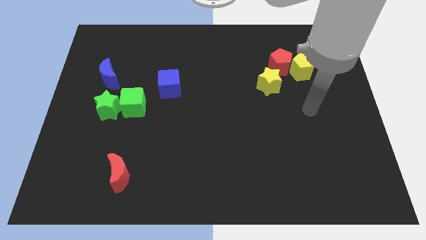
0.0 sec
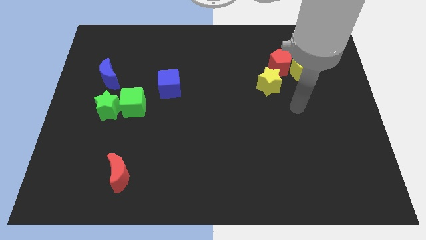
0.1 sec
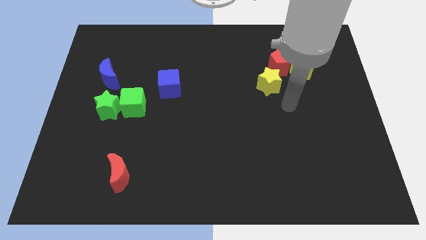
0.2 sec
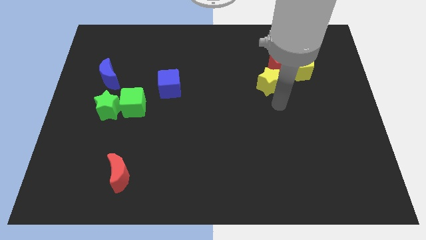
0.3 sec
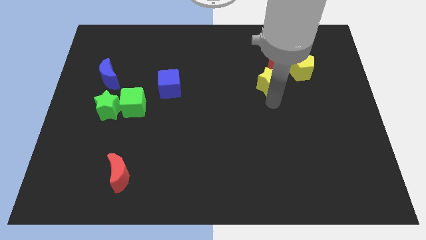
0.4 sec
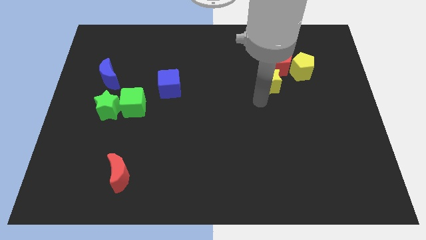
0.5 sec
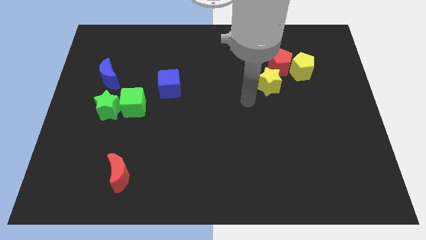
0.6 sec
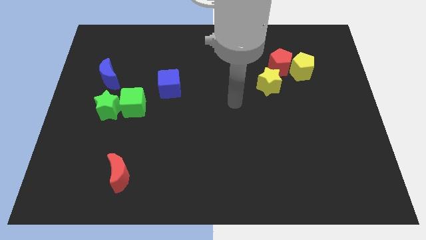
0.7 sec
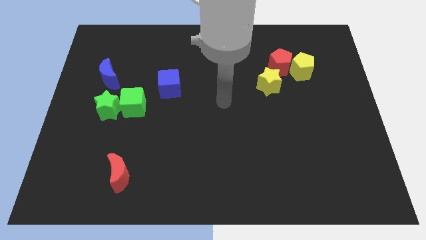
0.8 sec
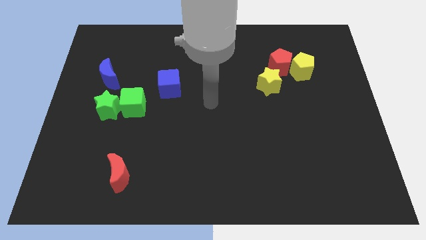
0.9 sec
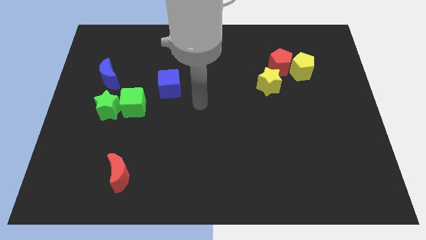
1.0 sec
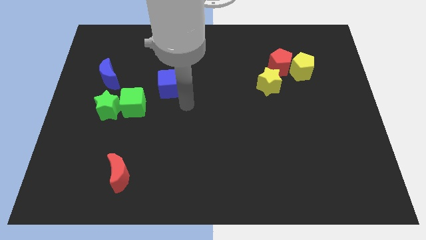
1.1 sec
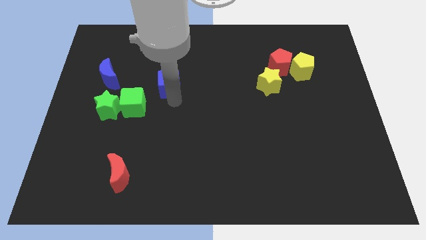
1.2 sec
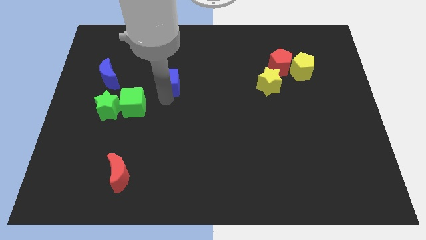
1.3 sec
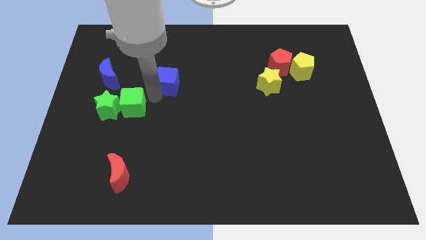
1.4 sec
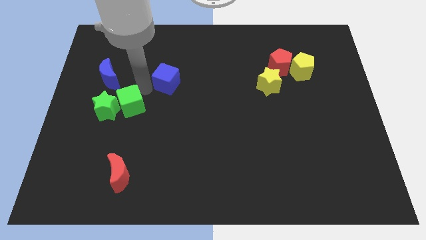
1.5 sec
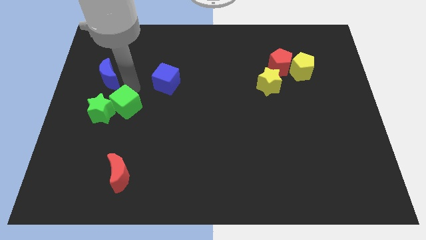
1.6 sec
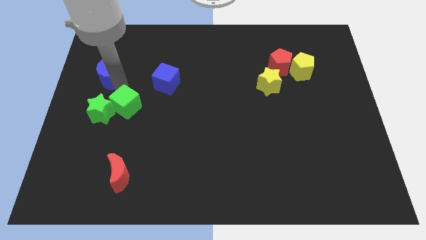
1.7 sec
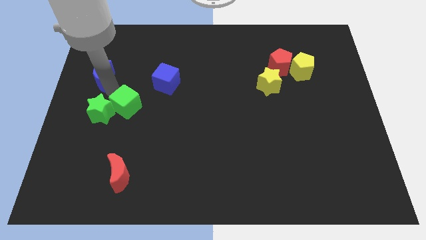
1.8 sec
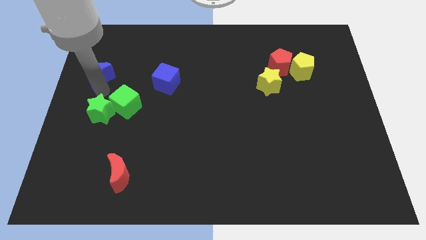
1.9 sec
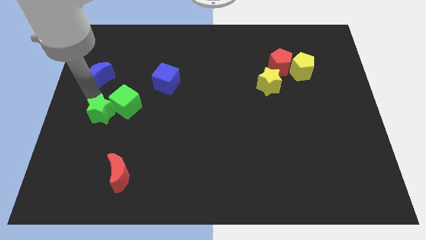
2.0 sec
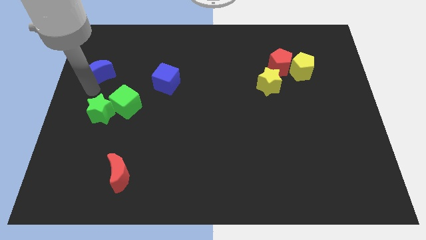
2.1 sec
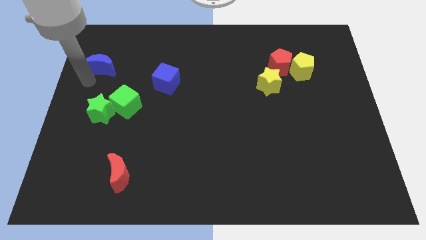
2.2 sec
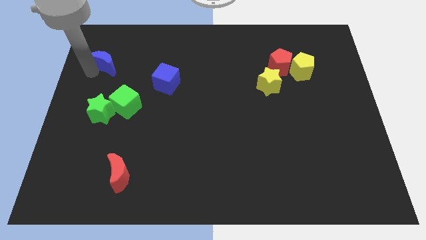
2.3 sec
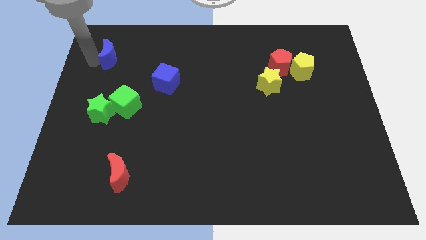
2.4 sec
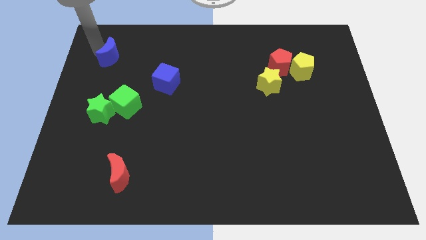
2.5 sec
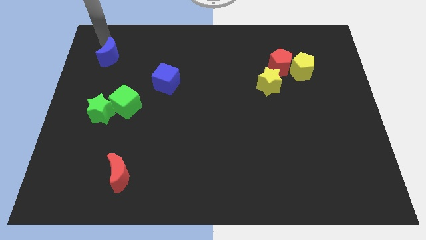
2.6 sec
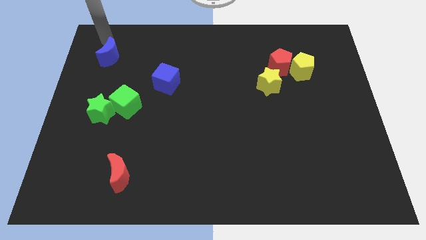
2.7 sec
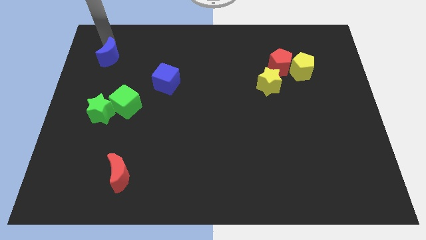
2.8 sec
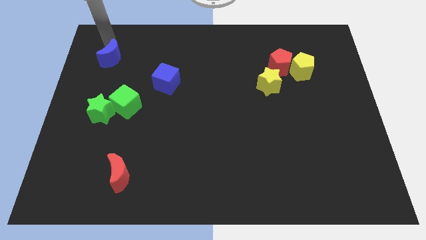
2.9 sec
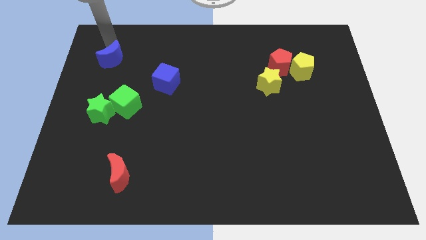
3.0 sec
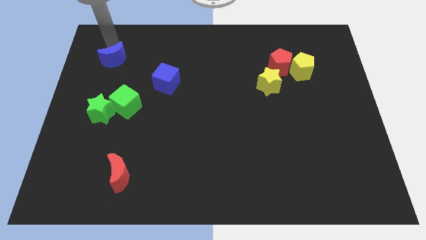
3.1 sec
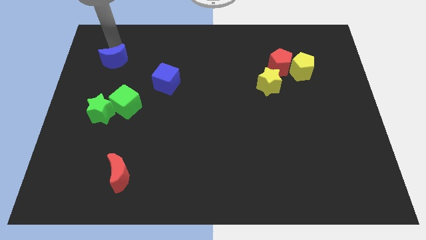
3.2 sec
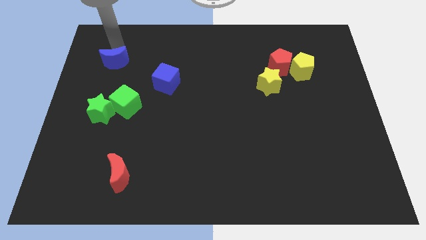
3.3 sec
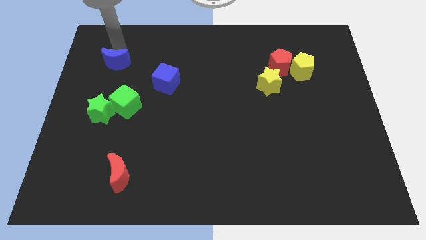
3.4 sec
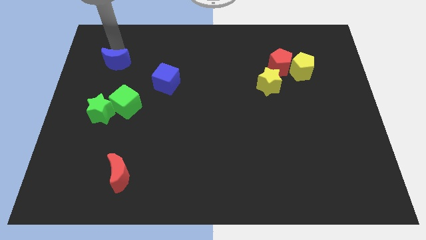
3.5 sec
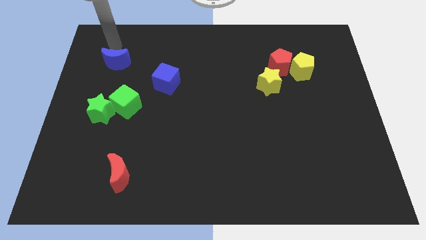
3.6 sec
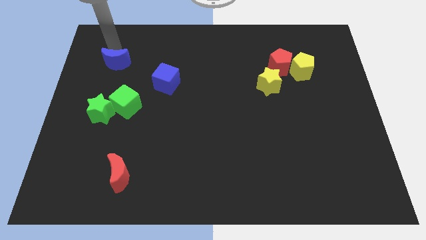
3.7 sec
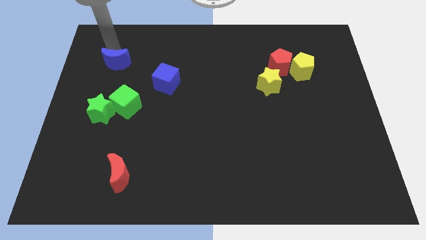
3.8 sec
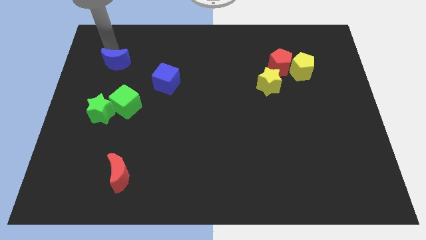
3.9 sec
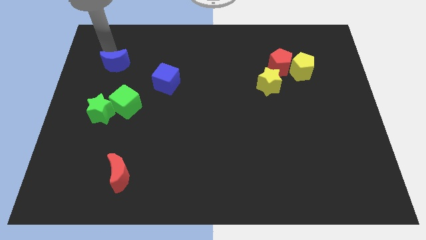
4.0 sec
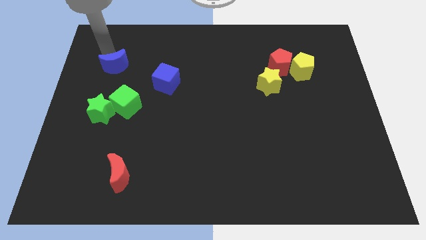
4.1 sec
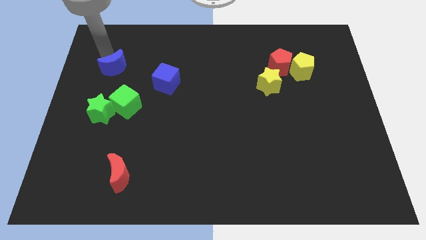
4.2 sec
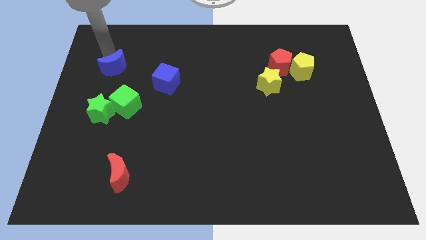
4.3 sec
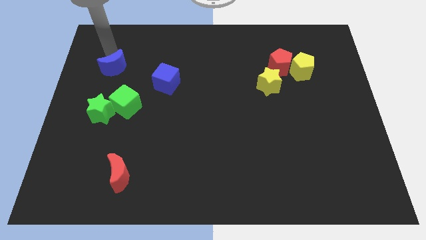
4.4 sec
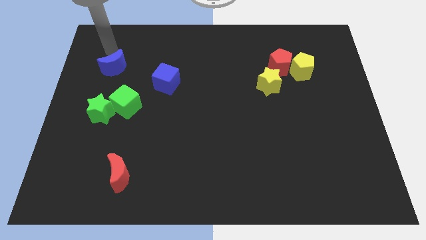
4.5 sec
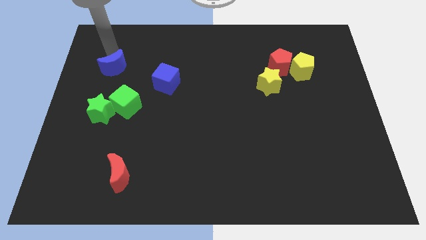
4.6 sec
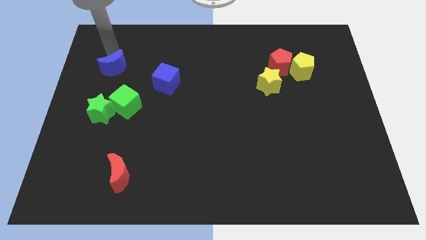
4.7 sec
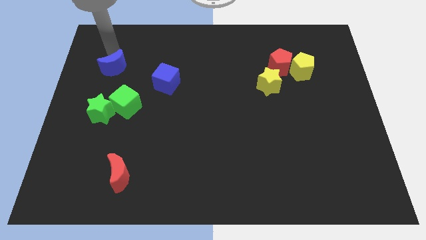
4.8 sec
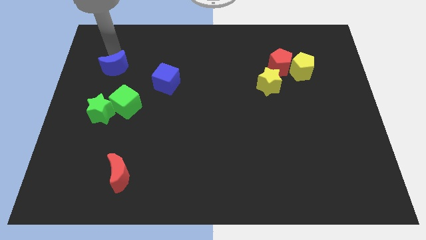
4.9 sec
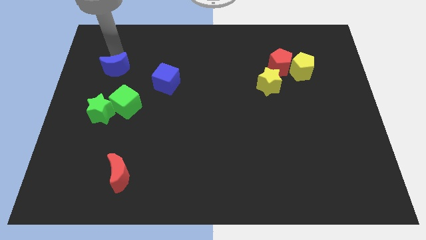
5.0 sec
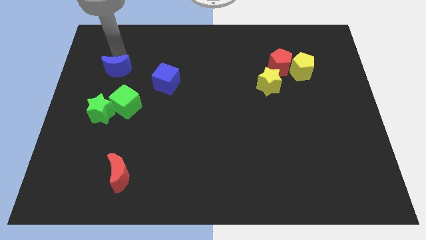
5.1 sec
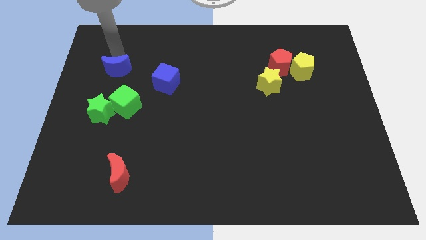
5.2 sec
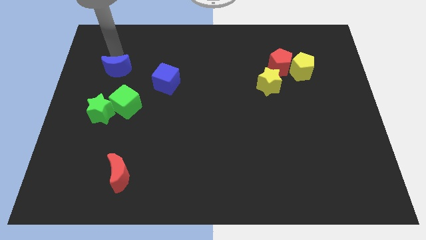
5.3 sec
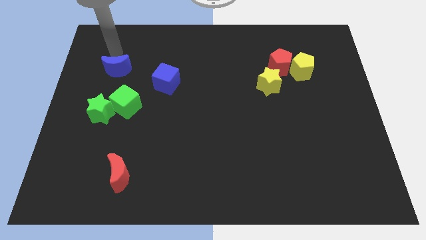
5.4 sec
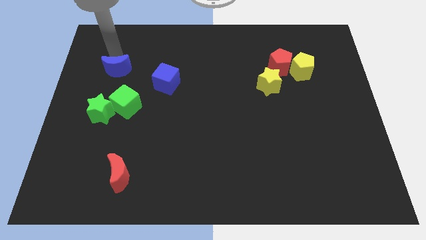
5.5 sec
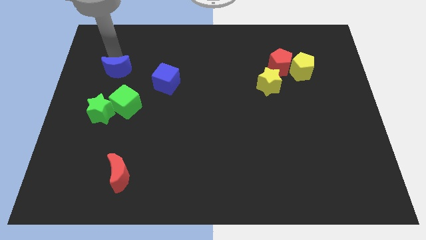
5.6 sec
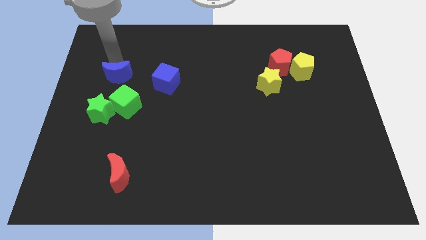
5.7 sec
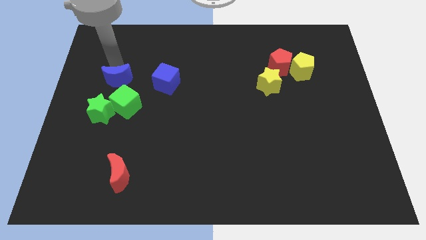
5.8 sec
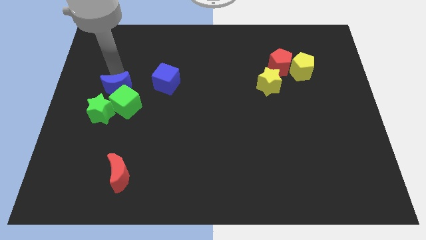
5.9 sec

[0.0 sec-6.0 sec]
put the blue moon close to the green cube

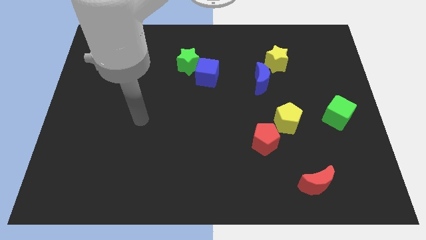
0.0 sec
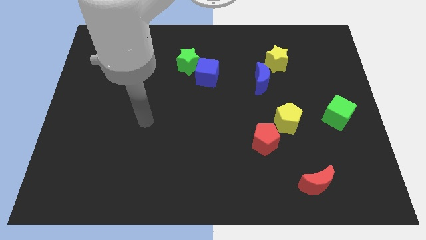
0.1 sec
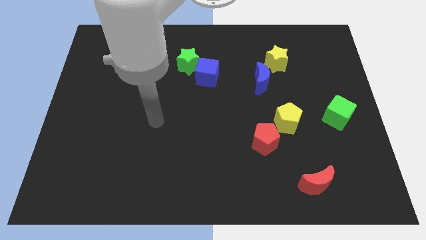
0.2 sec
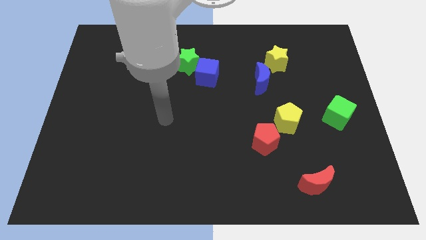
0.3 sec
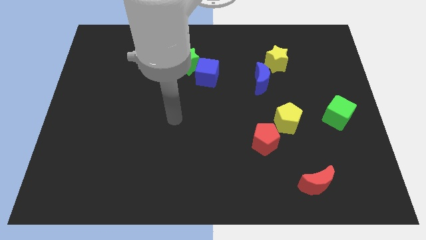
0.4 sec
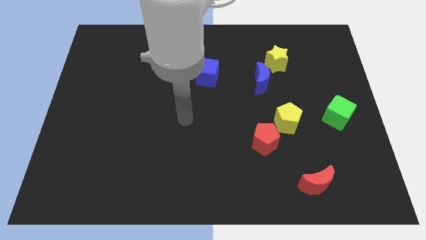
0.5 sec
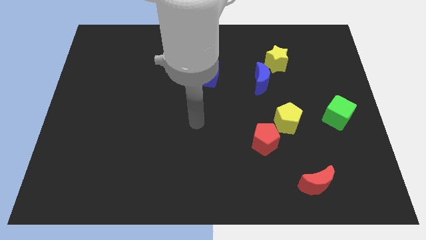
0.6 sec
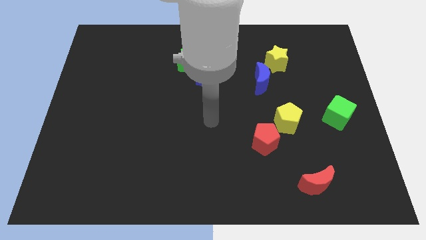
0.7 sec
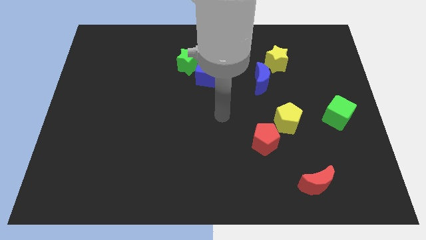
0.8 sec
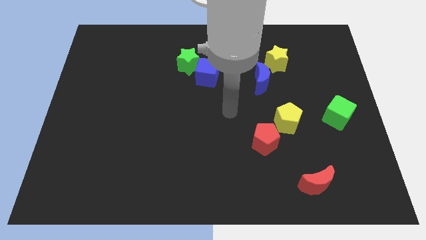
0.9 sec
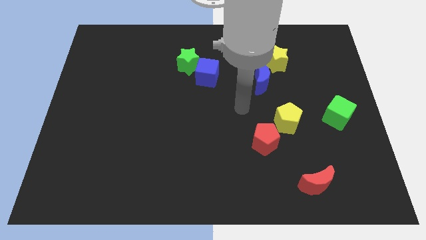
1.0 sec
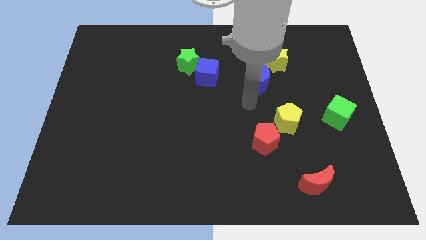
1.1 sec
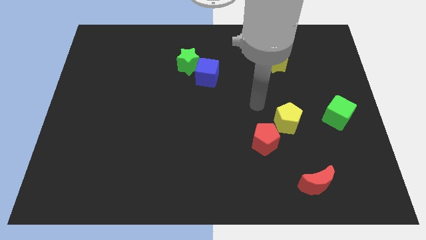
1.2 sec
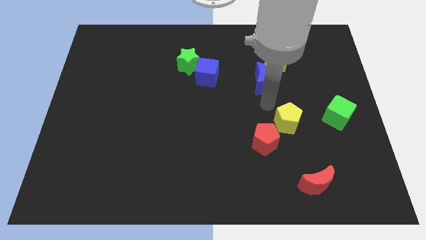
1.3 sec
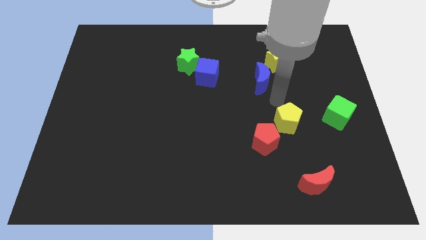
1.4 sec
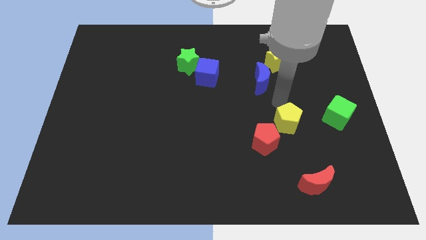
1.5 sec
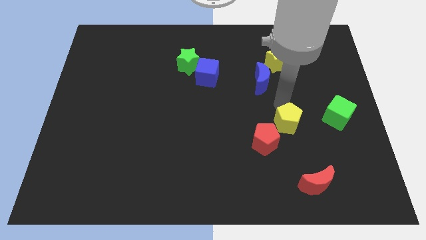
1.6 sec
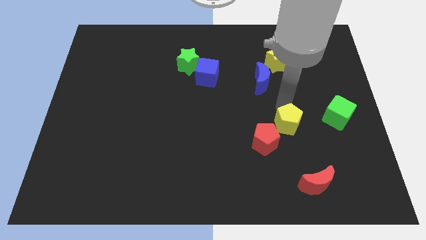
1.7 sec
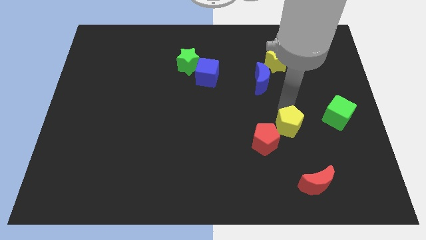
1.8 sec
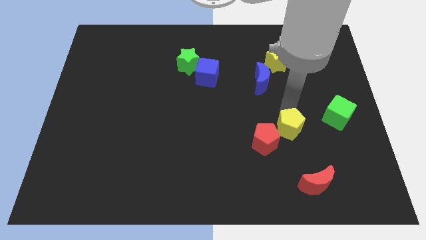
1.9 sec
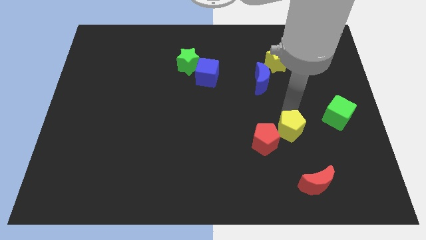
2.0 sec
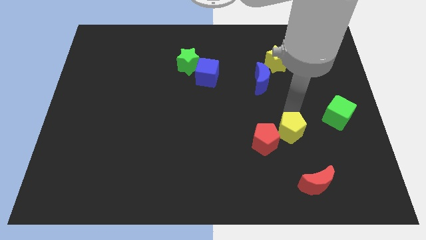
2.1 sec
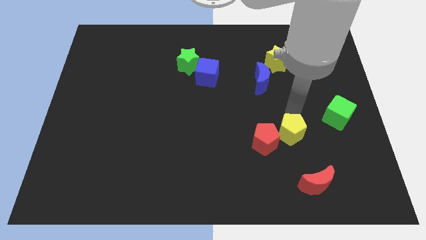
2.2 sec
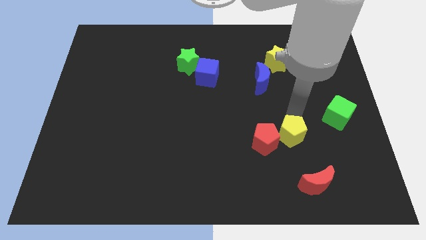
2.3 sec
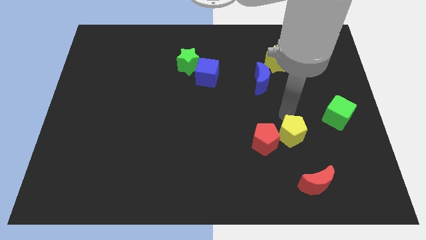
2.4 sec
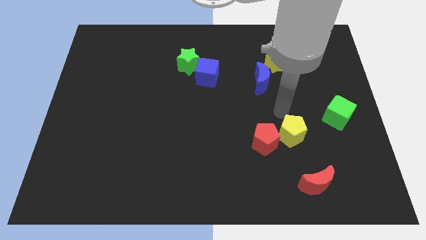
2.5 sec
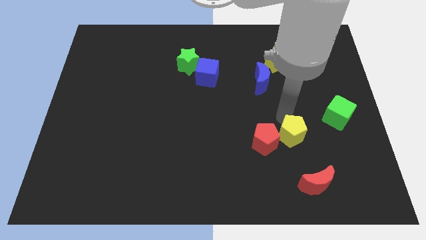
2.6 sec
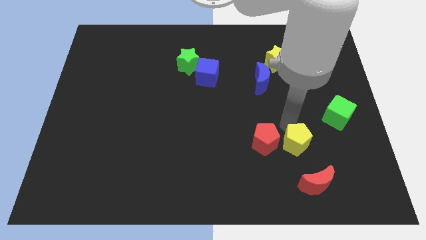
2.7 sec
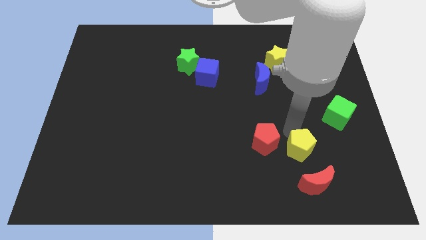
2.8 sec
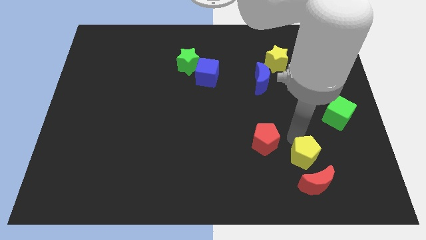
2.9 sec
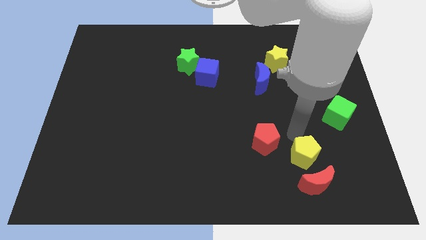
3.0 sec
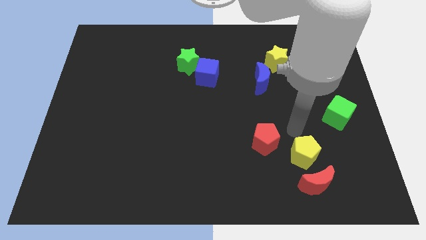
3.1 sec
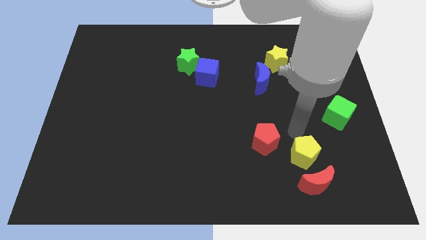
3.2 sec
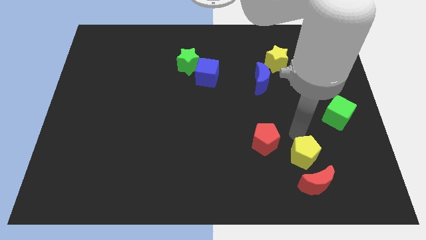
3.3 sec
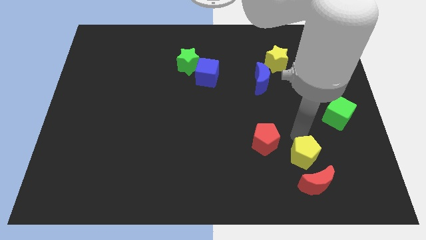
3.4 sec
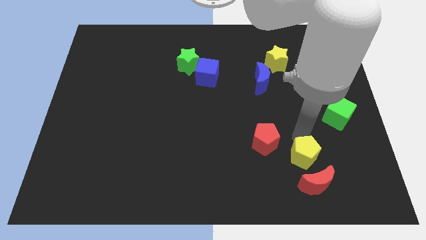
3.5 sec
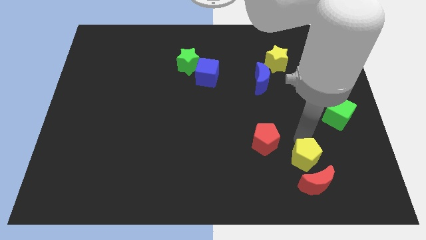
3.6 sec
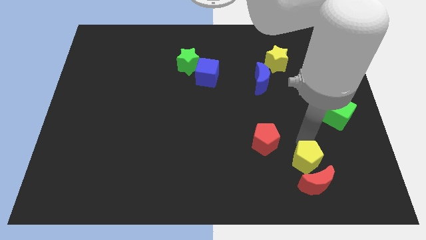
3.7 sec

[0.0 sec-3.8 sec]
slide the yellow pentagon to the red moon
